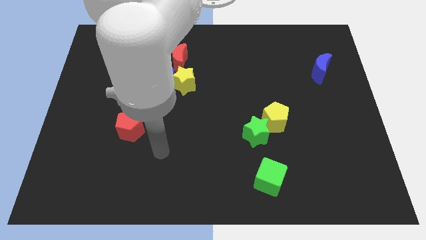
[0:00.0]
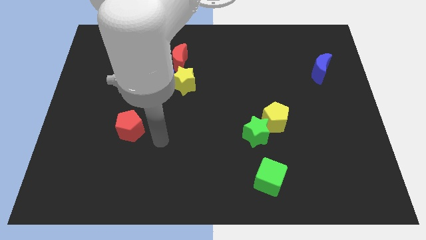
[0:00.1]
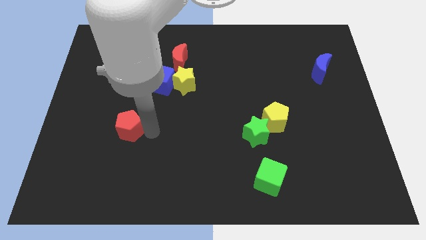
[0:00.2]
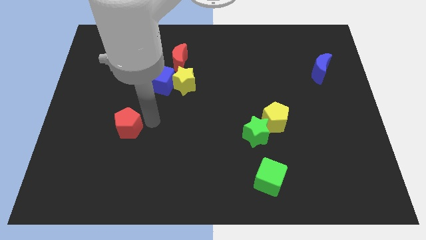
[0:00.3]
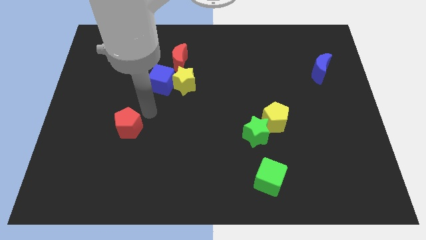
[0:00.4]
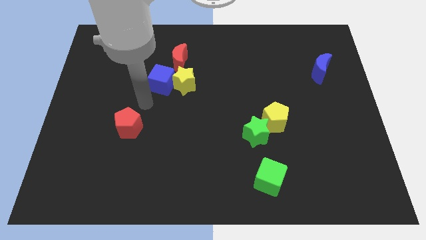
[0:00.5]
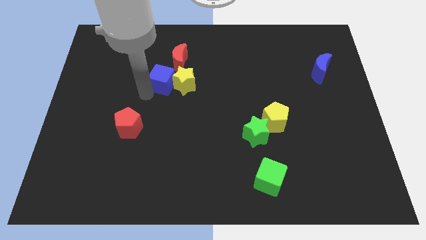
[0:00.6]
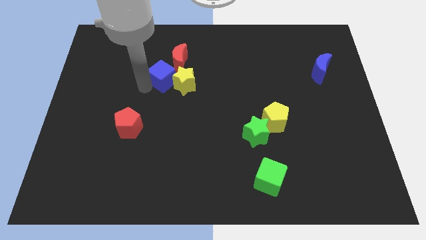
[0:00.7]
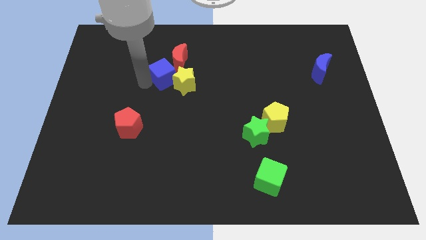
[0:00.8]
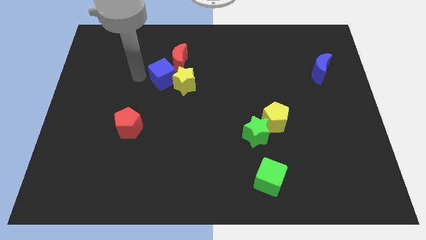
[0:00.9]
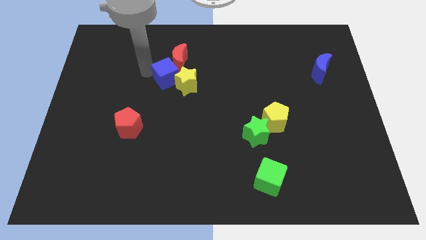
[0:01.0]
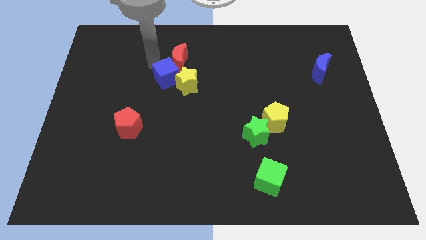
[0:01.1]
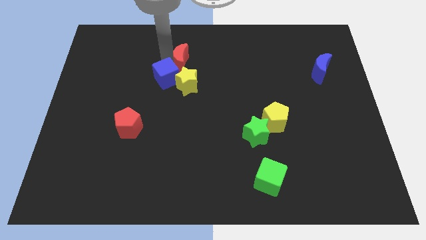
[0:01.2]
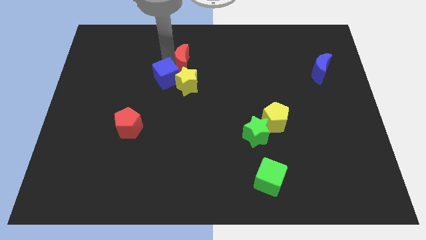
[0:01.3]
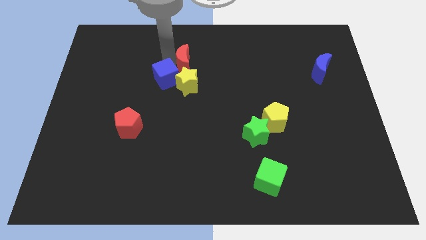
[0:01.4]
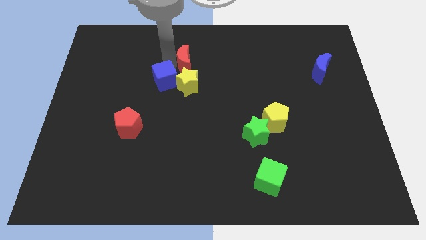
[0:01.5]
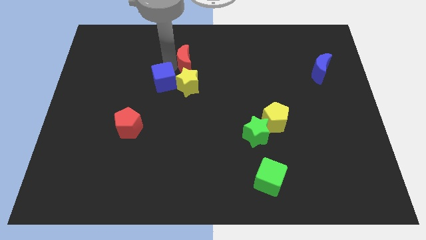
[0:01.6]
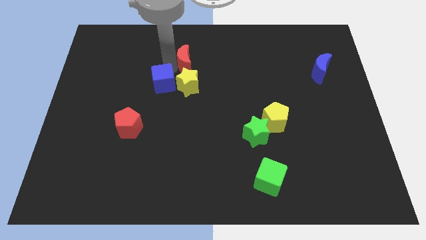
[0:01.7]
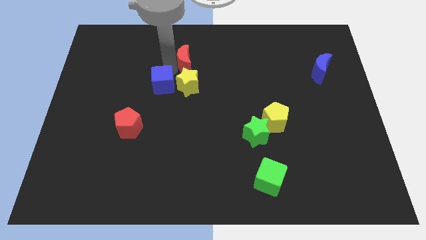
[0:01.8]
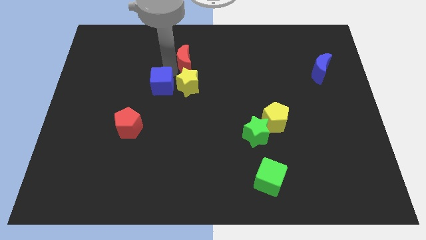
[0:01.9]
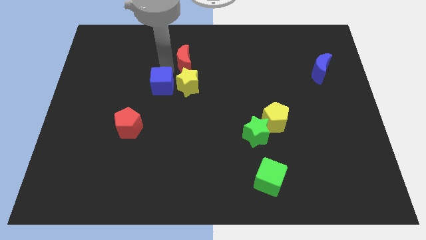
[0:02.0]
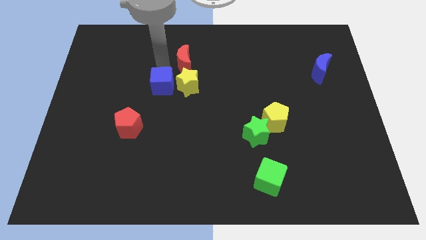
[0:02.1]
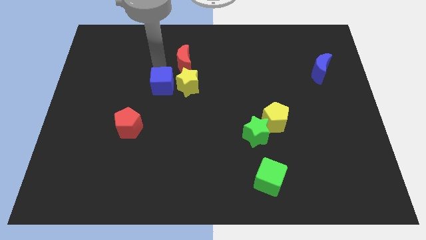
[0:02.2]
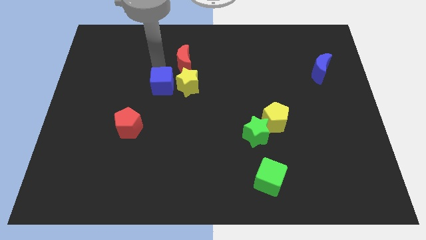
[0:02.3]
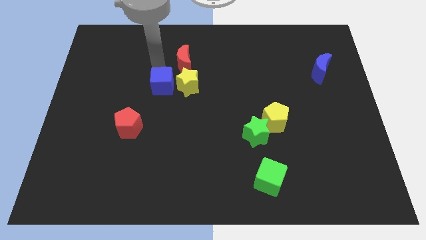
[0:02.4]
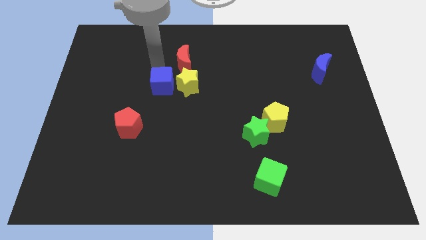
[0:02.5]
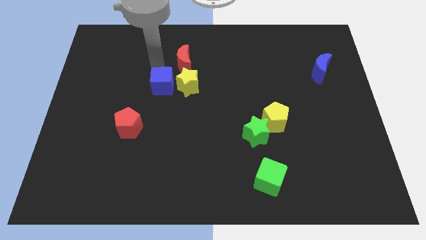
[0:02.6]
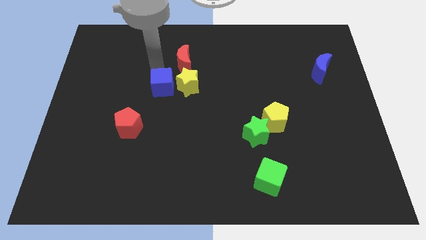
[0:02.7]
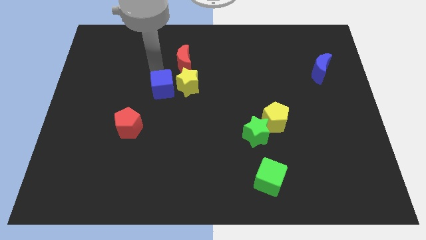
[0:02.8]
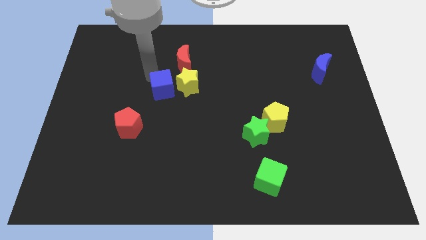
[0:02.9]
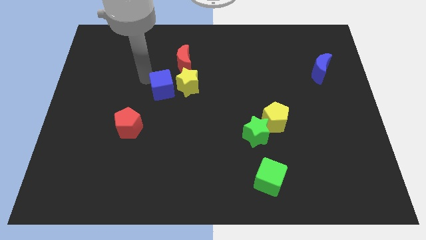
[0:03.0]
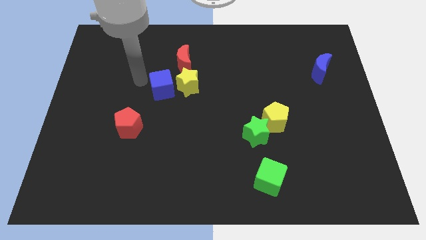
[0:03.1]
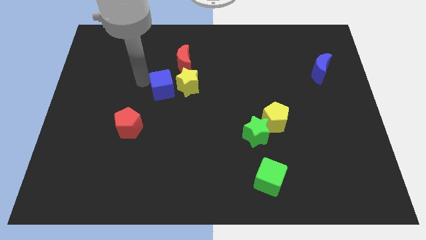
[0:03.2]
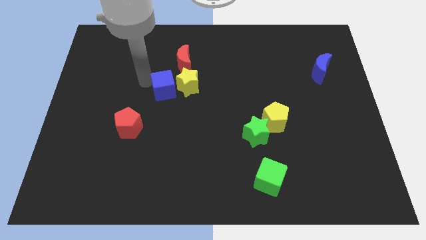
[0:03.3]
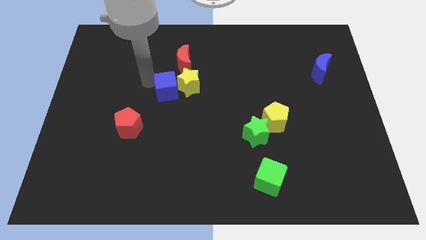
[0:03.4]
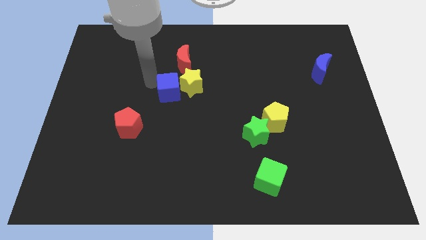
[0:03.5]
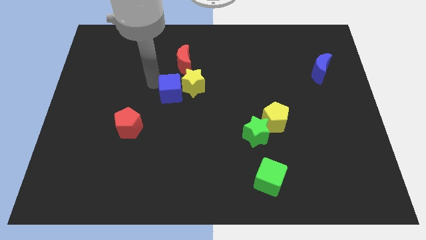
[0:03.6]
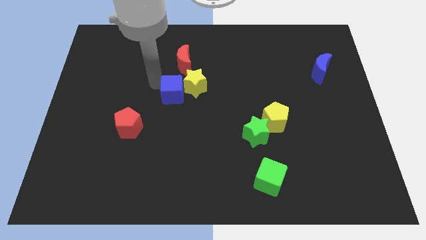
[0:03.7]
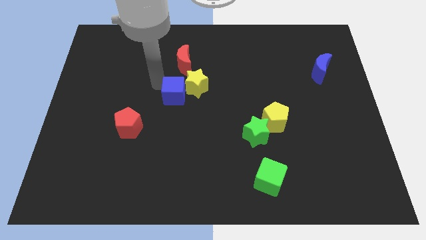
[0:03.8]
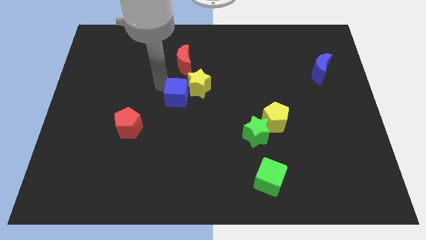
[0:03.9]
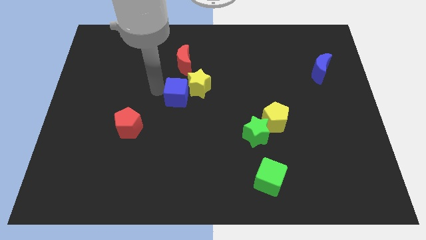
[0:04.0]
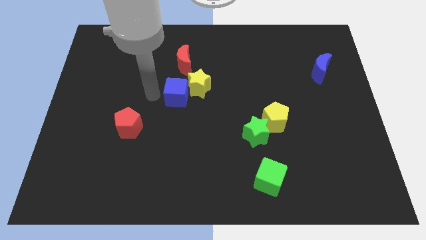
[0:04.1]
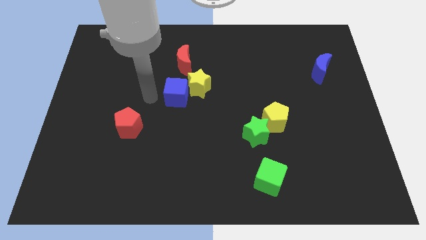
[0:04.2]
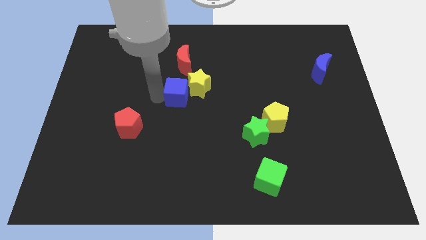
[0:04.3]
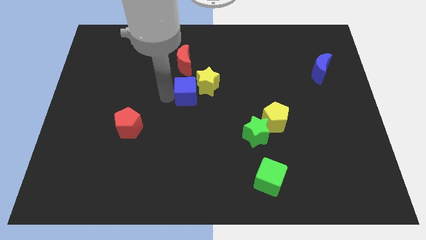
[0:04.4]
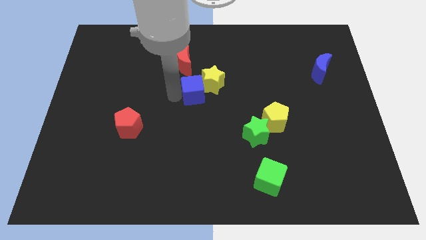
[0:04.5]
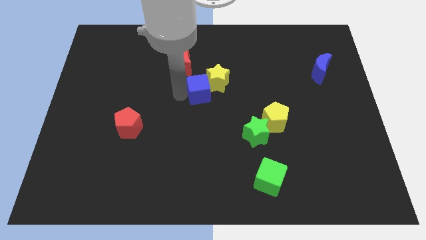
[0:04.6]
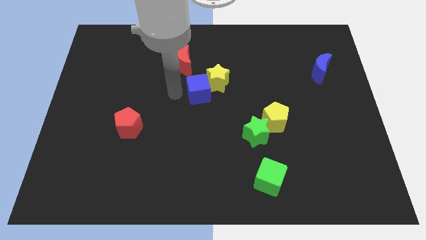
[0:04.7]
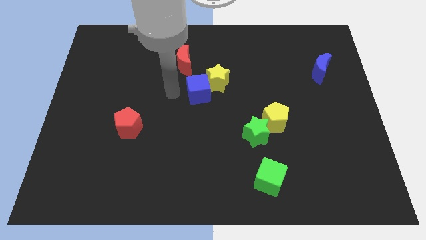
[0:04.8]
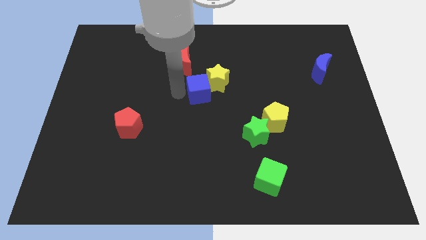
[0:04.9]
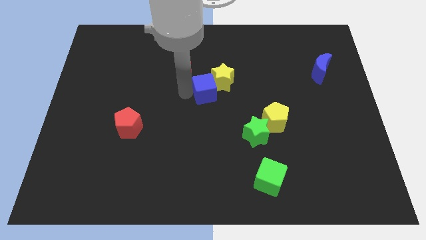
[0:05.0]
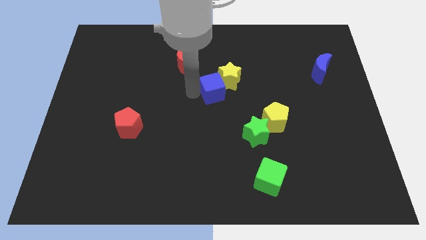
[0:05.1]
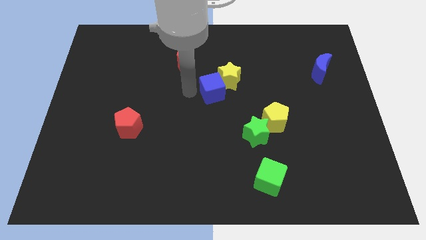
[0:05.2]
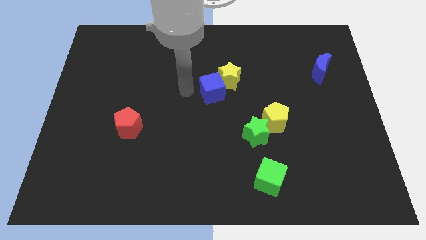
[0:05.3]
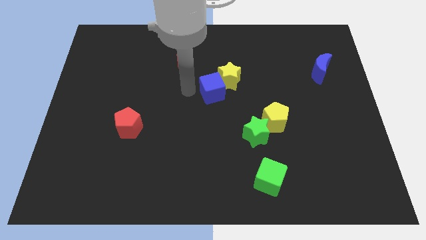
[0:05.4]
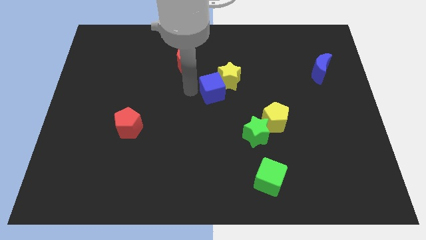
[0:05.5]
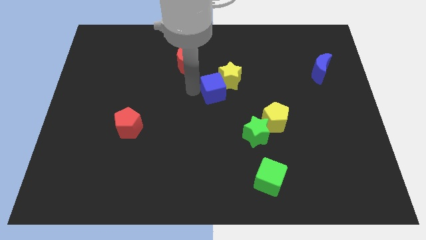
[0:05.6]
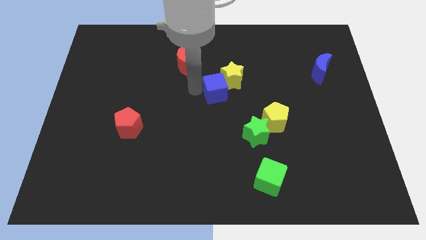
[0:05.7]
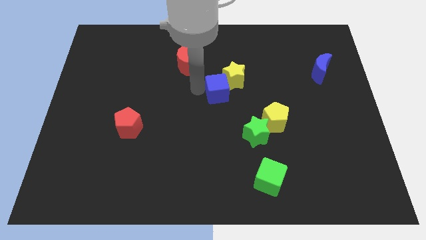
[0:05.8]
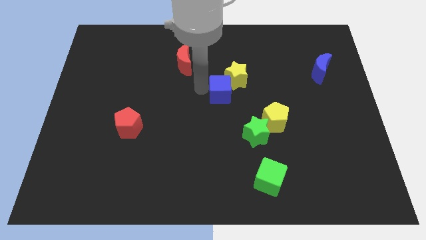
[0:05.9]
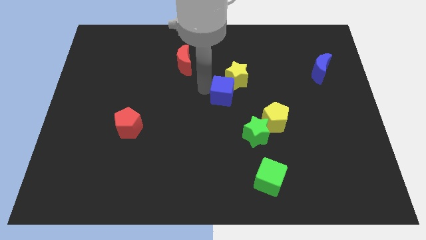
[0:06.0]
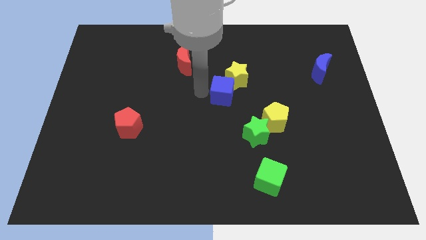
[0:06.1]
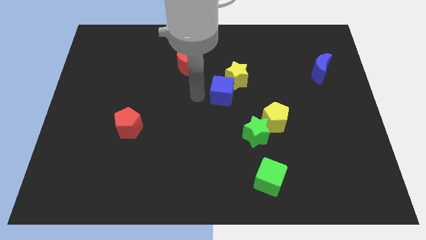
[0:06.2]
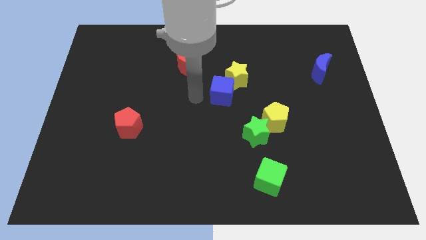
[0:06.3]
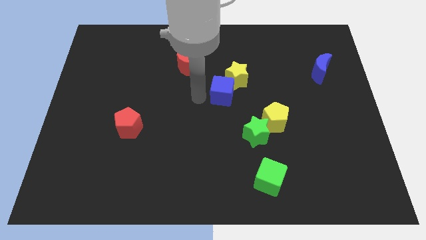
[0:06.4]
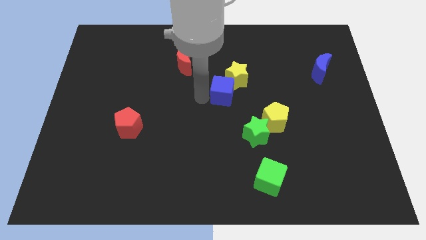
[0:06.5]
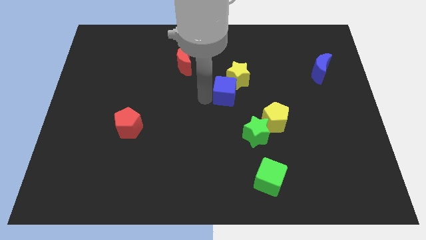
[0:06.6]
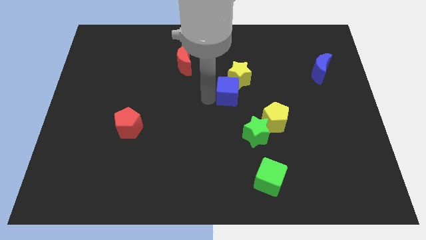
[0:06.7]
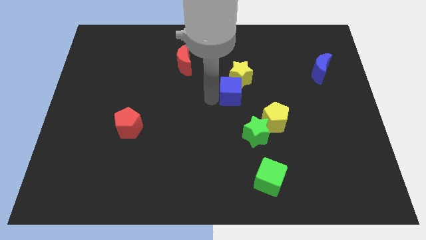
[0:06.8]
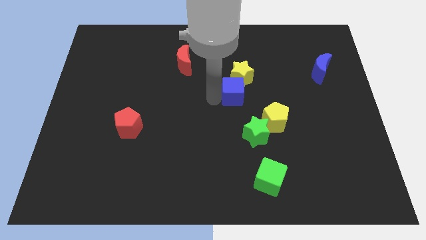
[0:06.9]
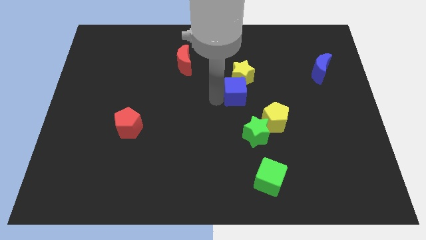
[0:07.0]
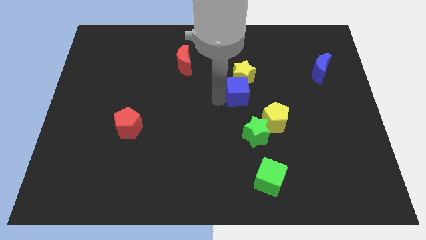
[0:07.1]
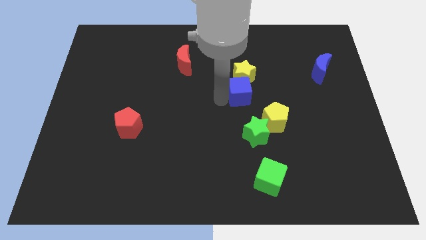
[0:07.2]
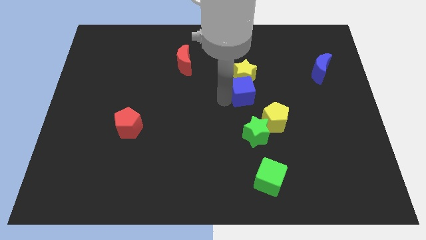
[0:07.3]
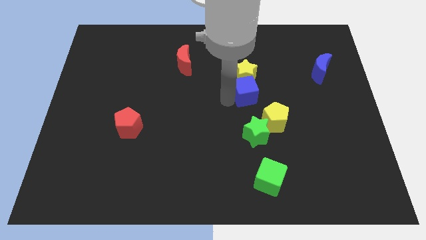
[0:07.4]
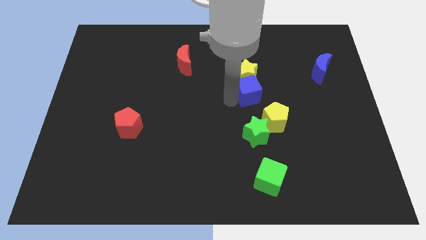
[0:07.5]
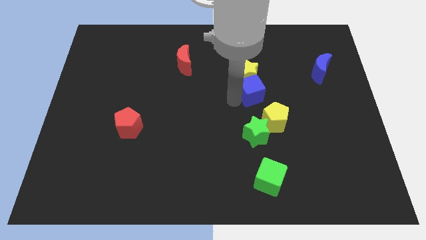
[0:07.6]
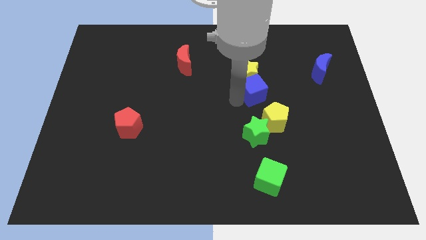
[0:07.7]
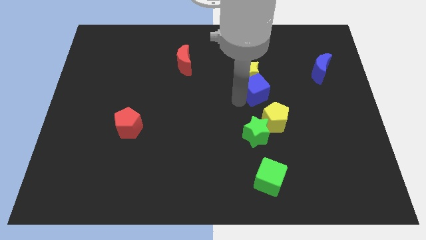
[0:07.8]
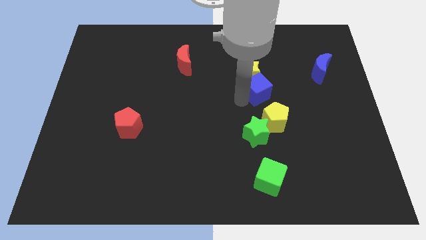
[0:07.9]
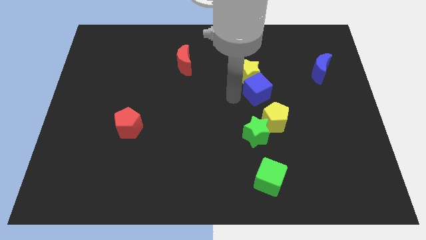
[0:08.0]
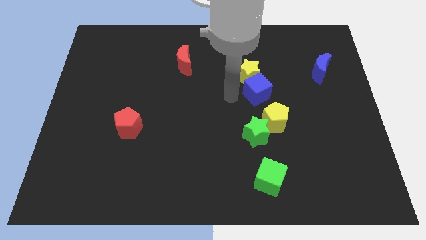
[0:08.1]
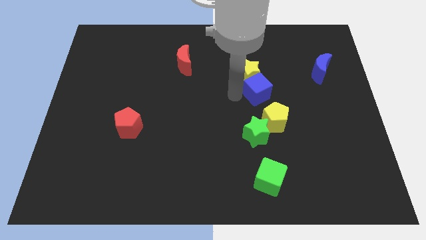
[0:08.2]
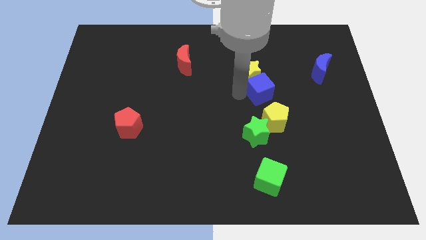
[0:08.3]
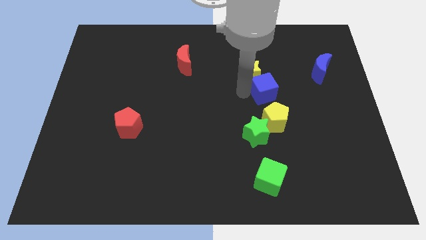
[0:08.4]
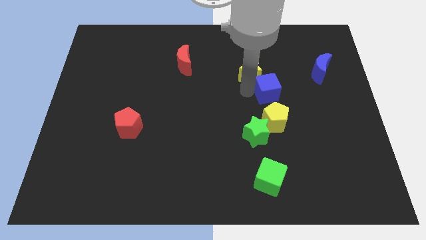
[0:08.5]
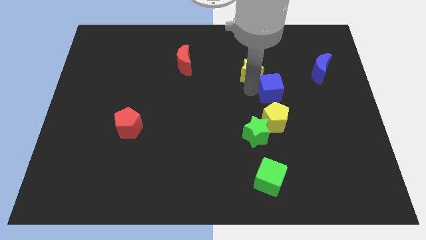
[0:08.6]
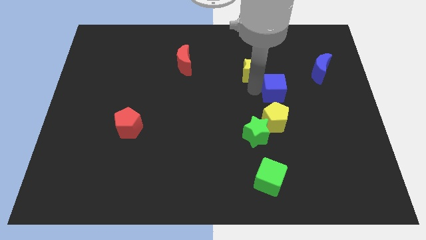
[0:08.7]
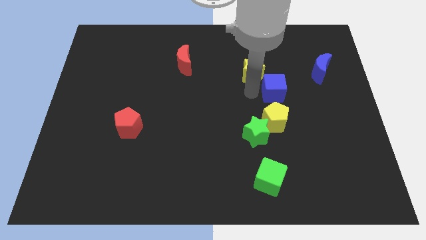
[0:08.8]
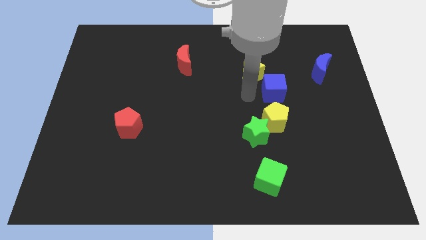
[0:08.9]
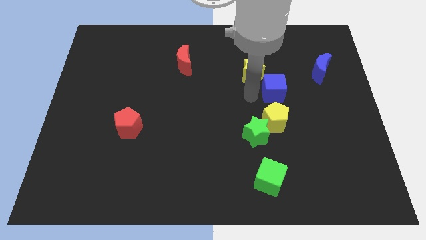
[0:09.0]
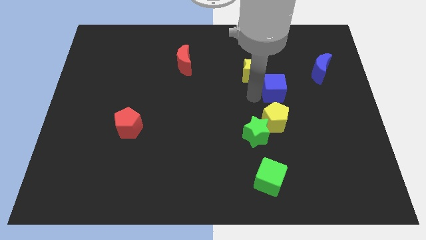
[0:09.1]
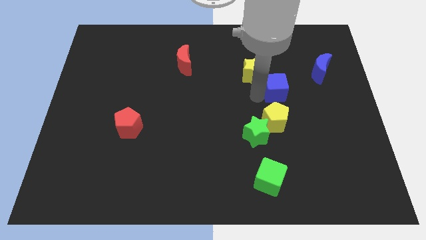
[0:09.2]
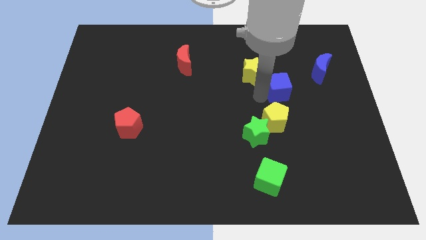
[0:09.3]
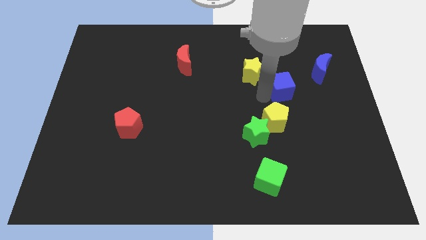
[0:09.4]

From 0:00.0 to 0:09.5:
put the blue cube diagonally down and to the left of the blue moon
